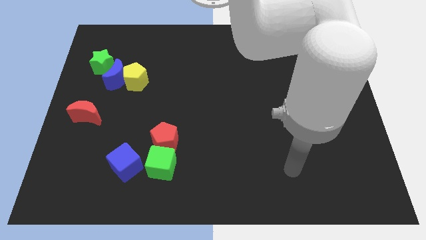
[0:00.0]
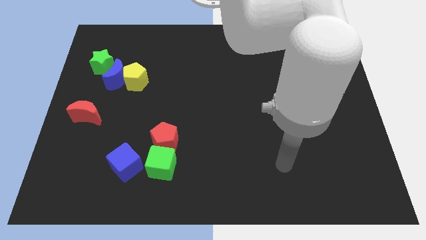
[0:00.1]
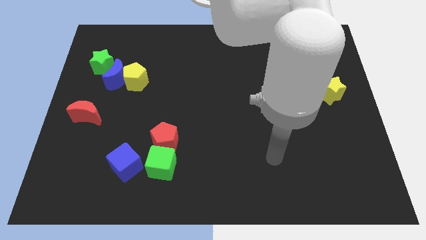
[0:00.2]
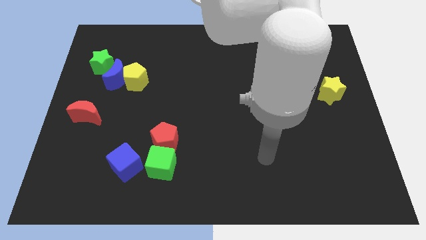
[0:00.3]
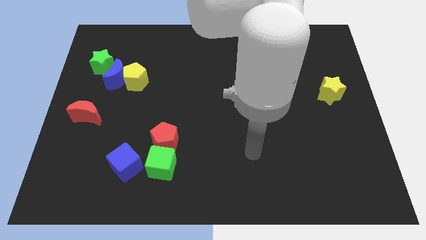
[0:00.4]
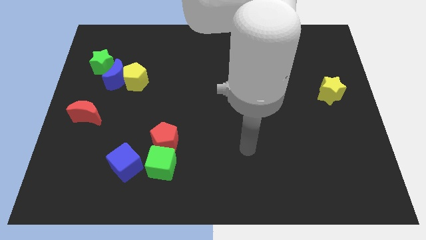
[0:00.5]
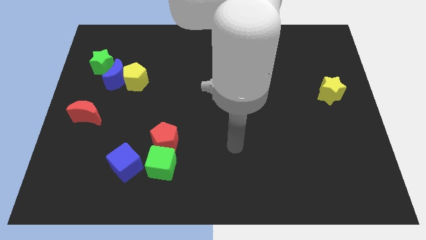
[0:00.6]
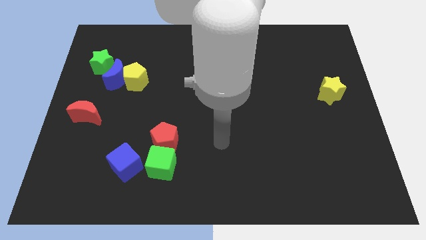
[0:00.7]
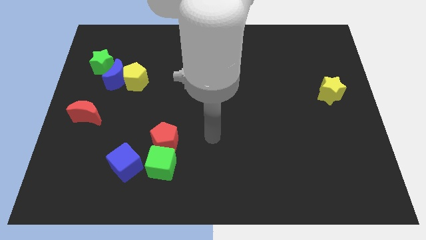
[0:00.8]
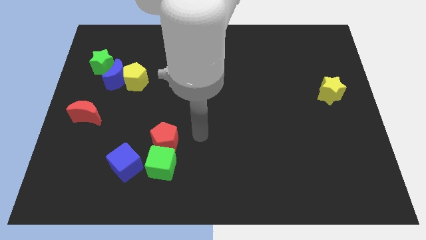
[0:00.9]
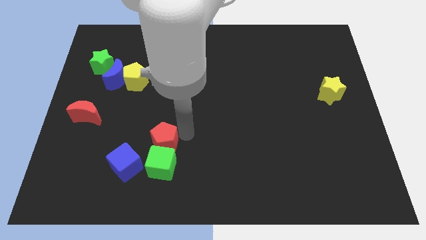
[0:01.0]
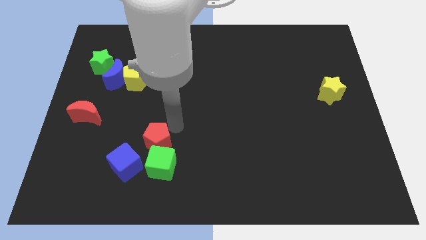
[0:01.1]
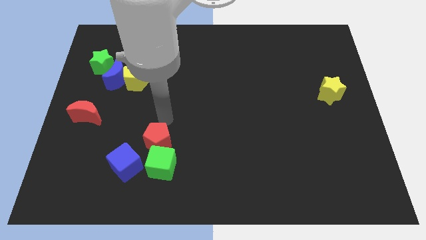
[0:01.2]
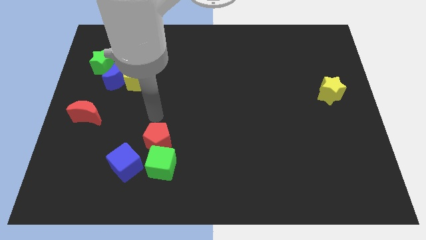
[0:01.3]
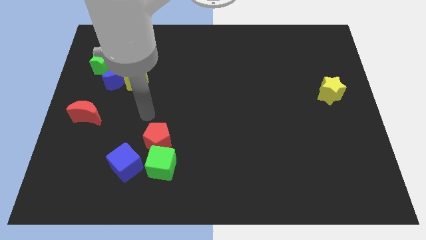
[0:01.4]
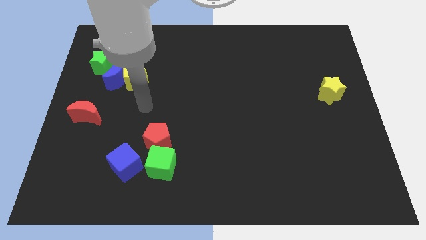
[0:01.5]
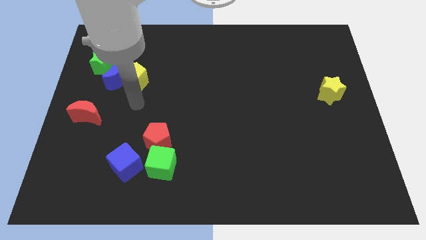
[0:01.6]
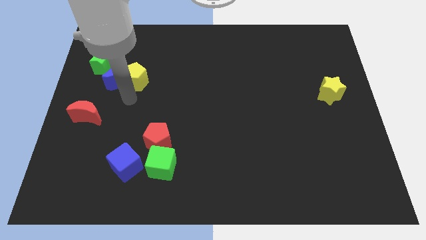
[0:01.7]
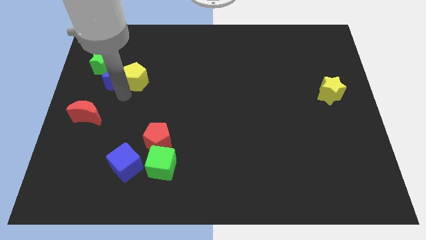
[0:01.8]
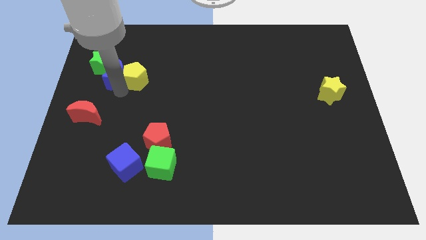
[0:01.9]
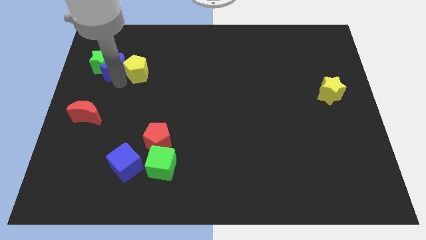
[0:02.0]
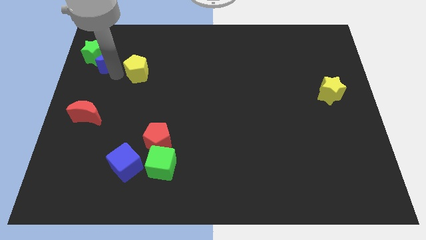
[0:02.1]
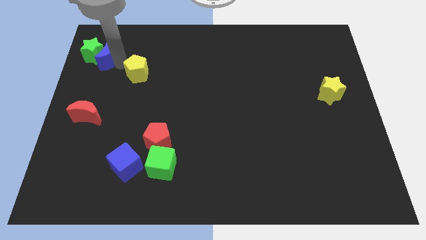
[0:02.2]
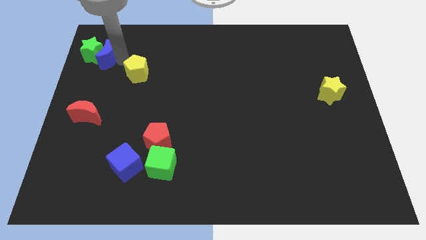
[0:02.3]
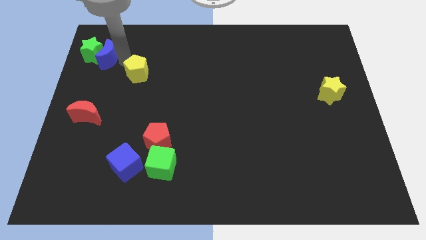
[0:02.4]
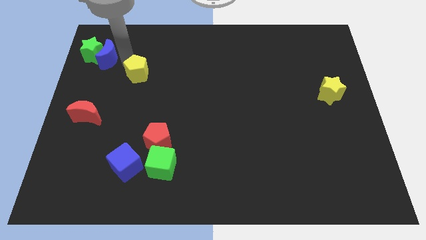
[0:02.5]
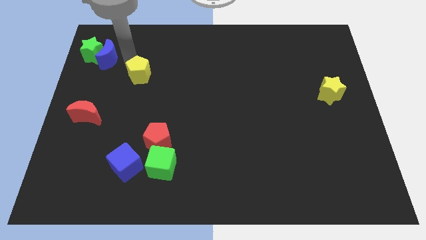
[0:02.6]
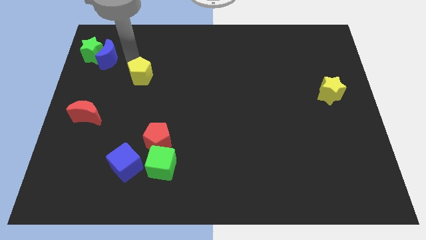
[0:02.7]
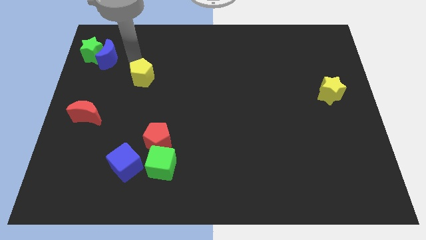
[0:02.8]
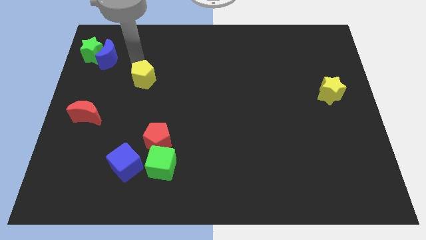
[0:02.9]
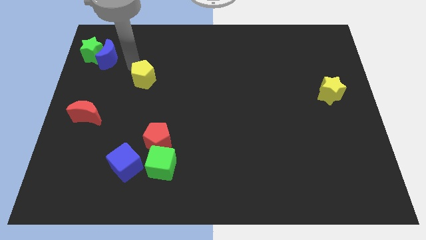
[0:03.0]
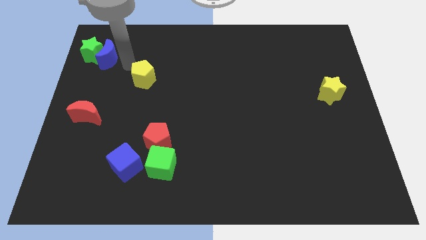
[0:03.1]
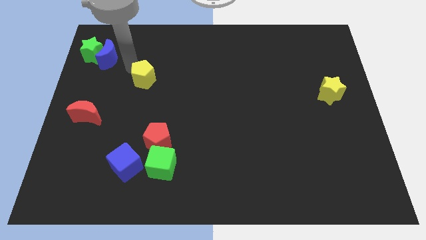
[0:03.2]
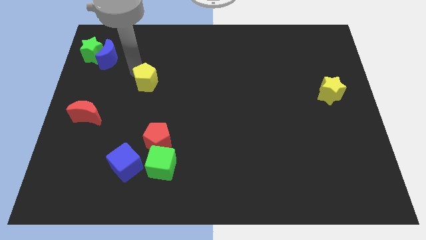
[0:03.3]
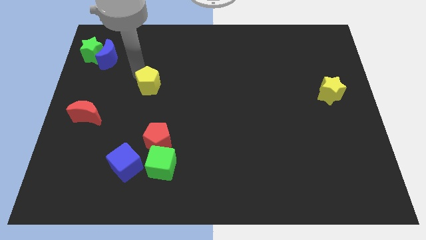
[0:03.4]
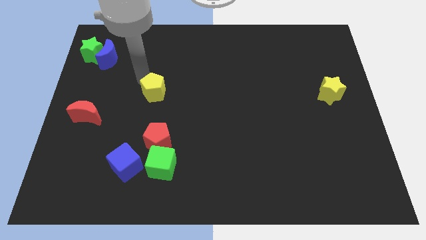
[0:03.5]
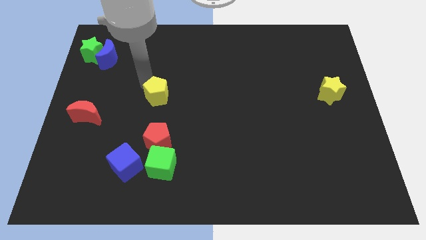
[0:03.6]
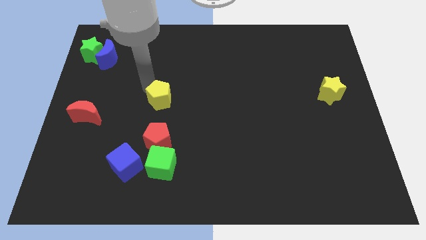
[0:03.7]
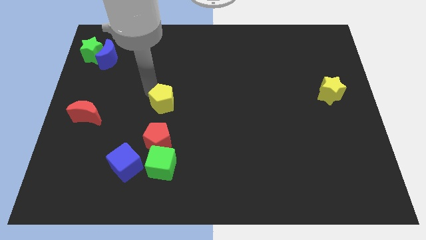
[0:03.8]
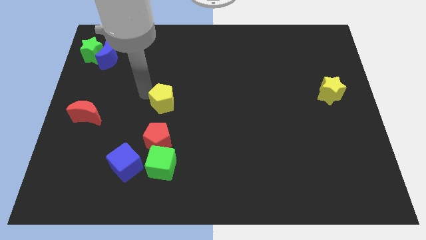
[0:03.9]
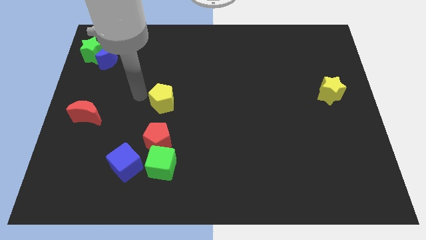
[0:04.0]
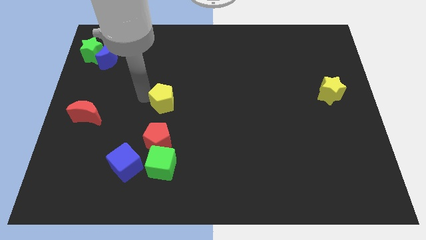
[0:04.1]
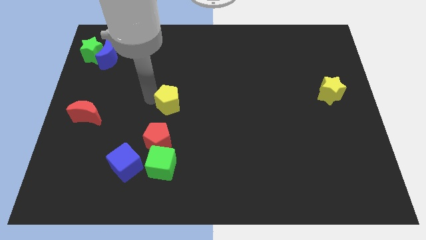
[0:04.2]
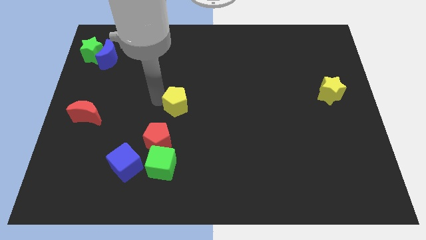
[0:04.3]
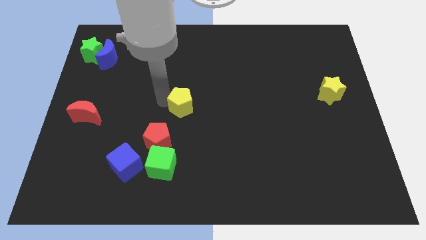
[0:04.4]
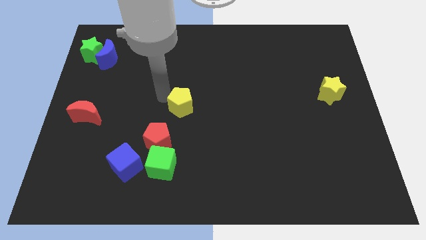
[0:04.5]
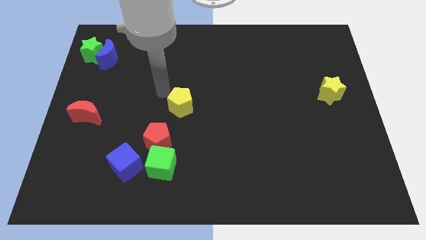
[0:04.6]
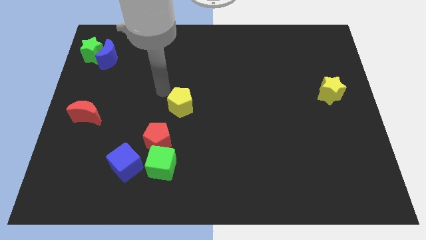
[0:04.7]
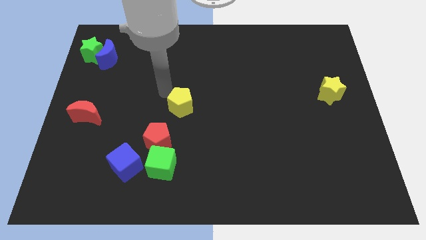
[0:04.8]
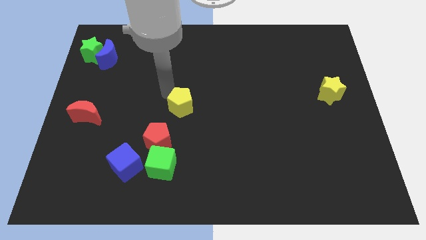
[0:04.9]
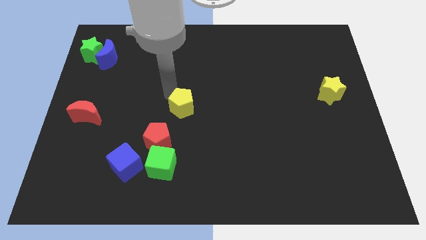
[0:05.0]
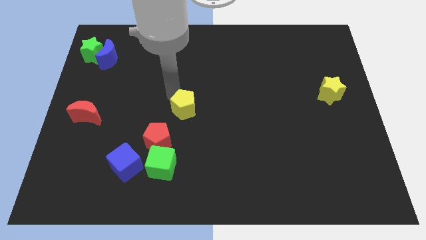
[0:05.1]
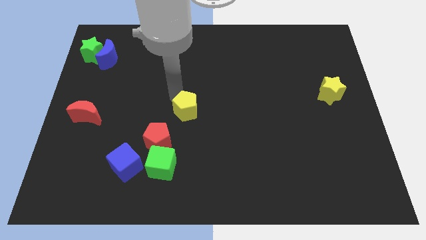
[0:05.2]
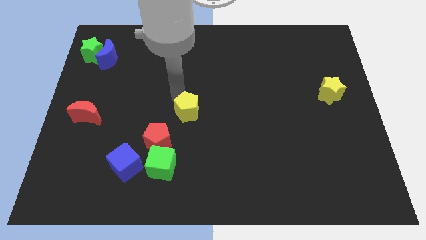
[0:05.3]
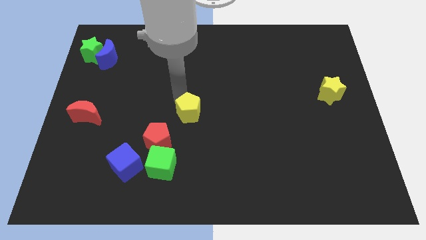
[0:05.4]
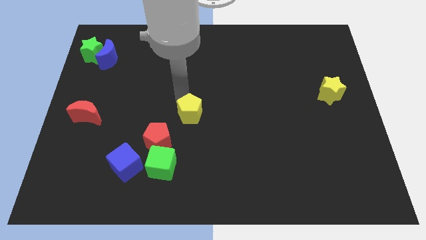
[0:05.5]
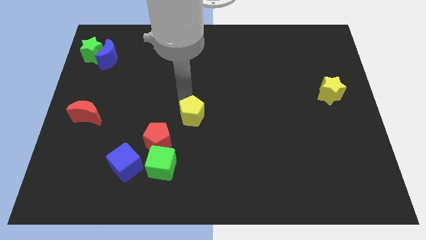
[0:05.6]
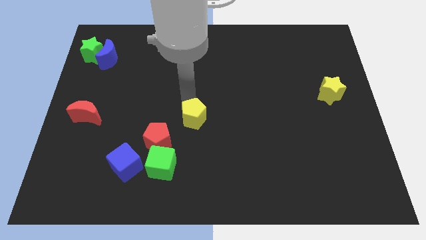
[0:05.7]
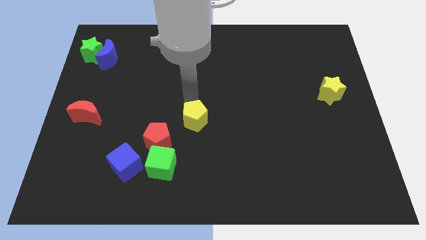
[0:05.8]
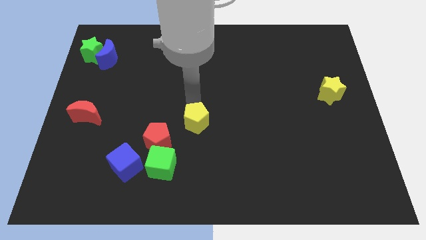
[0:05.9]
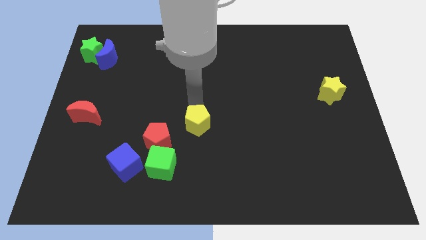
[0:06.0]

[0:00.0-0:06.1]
push the yellow pentagon just right of the red pentagon
